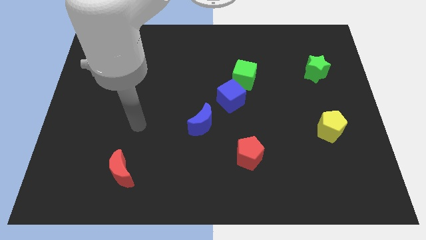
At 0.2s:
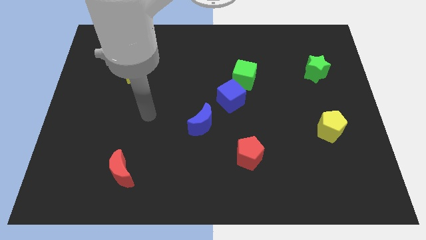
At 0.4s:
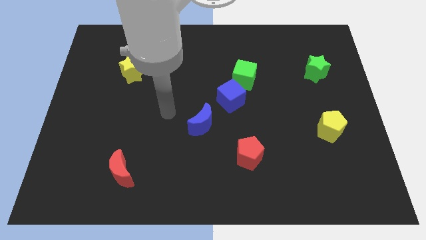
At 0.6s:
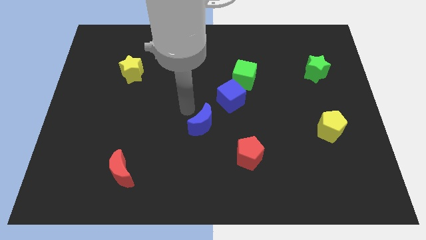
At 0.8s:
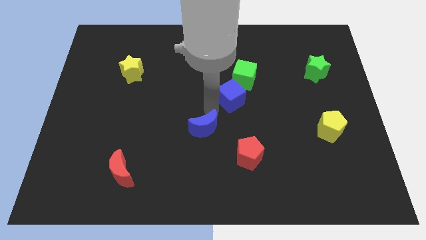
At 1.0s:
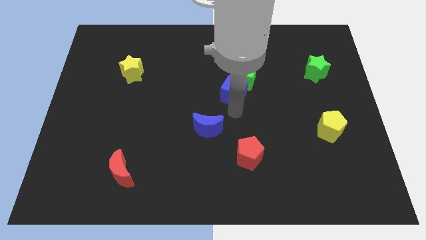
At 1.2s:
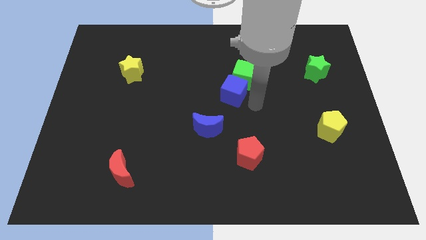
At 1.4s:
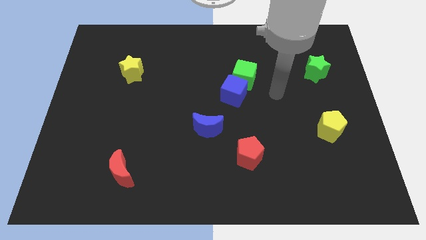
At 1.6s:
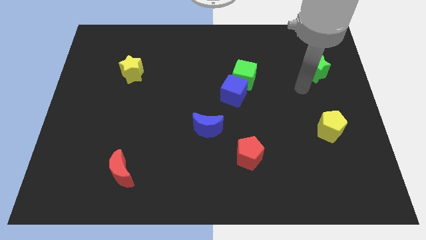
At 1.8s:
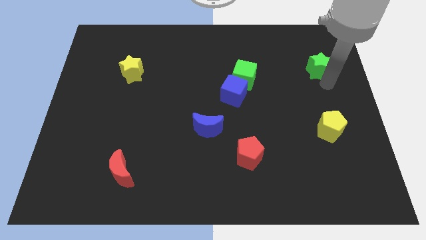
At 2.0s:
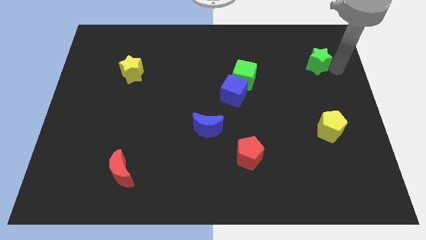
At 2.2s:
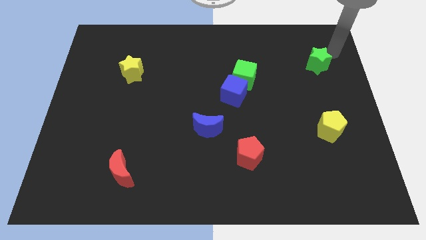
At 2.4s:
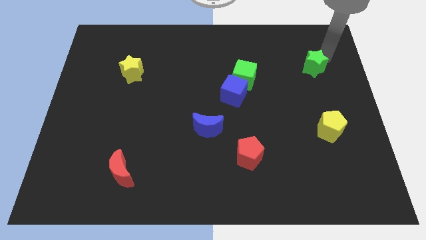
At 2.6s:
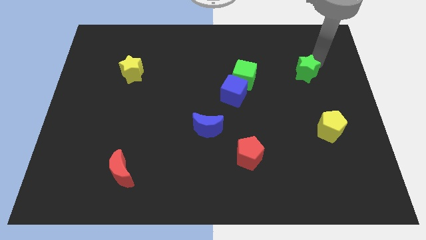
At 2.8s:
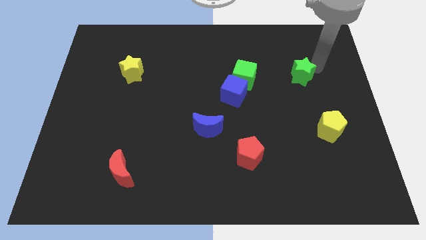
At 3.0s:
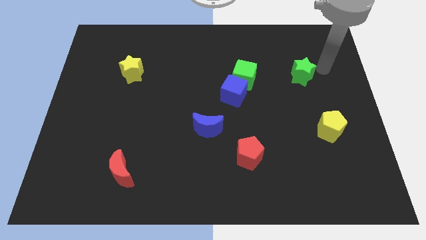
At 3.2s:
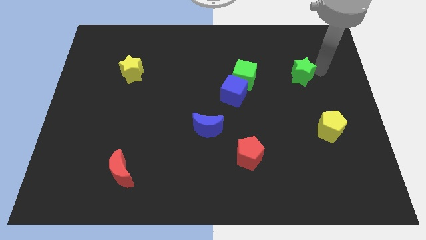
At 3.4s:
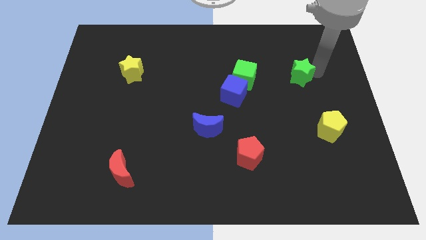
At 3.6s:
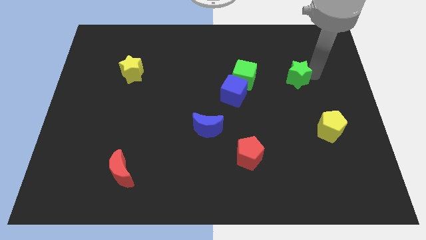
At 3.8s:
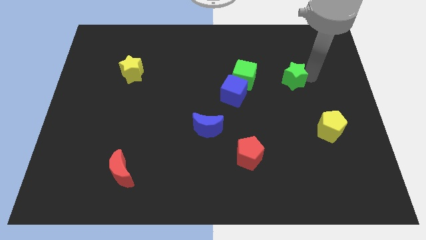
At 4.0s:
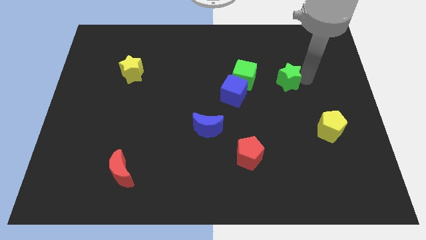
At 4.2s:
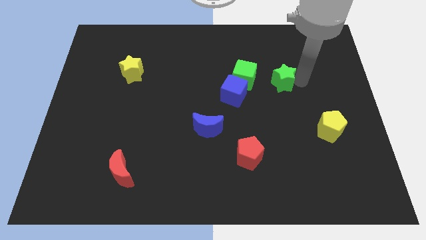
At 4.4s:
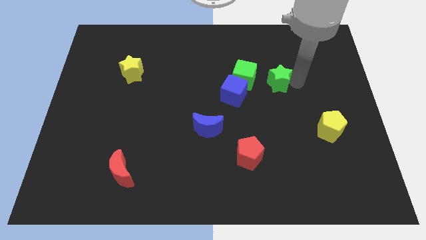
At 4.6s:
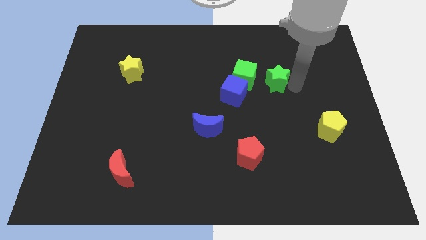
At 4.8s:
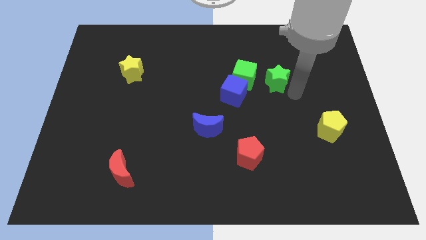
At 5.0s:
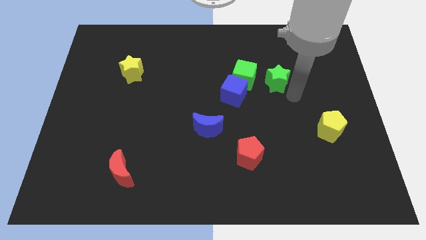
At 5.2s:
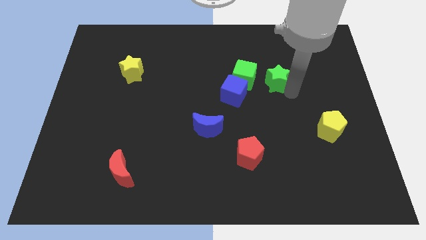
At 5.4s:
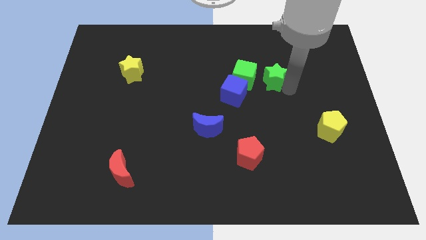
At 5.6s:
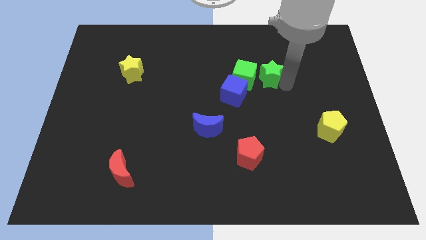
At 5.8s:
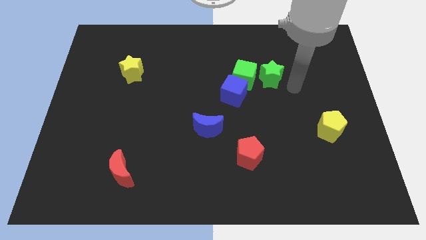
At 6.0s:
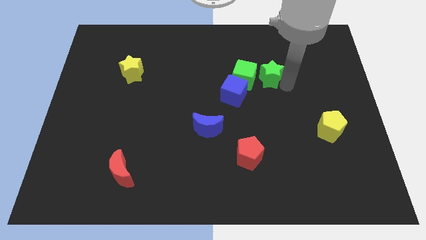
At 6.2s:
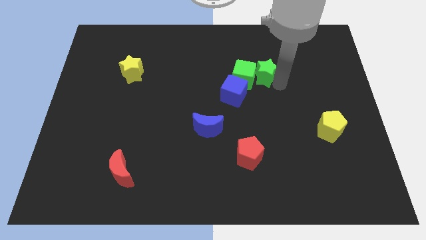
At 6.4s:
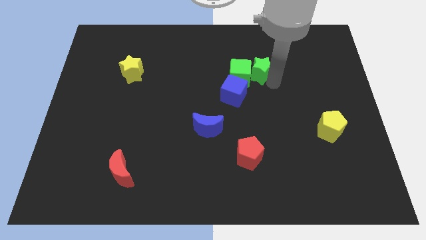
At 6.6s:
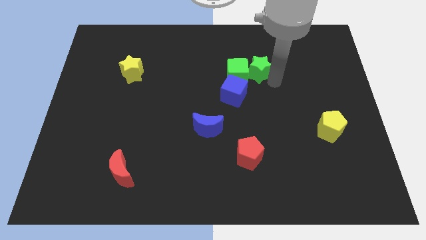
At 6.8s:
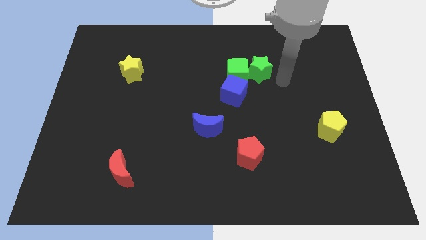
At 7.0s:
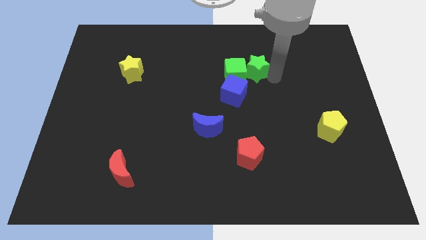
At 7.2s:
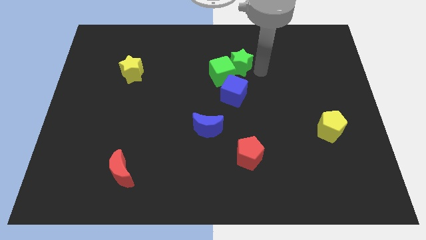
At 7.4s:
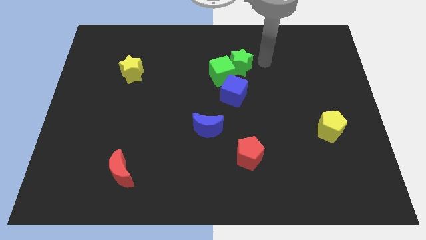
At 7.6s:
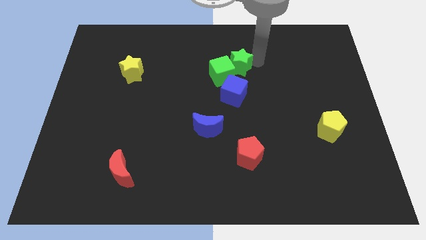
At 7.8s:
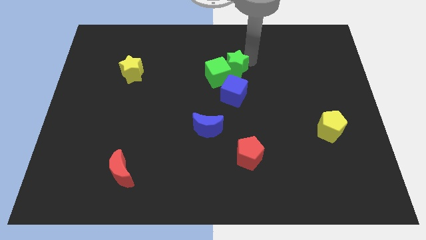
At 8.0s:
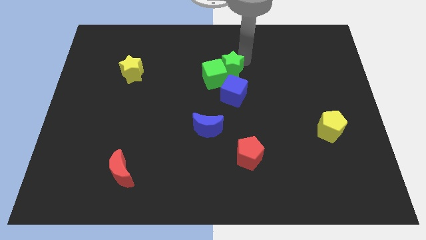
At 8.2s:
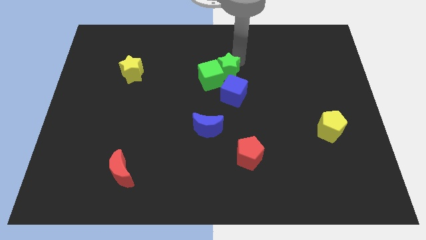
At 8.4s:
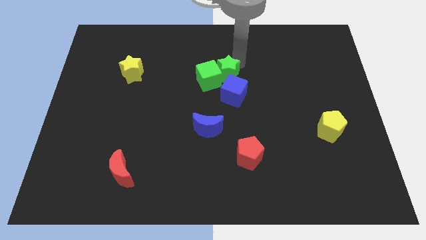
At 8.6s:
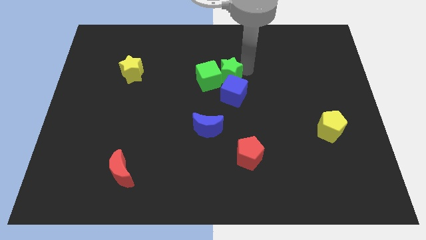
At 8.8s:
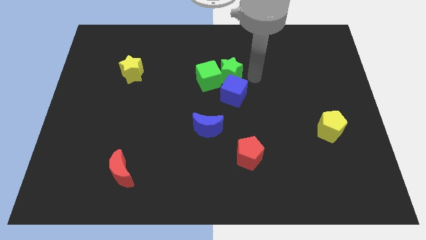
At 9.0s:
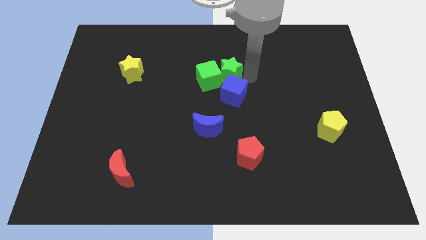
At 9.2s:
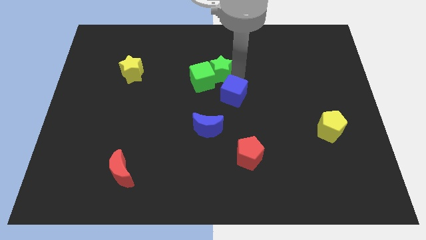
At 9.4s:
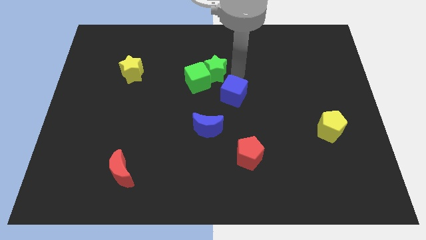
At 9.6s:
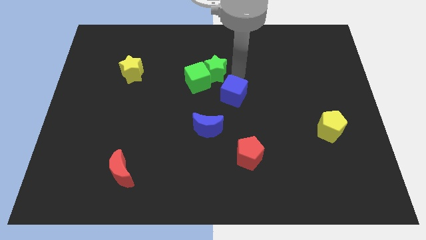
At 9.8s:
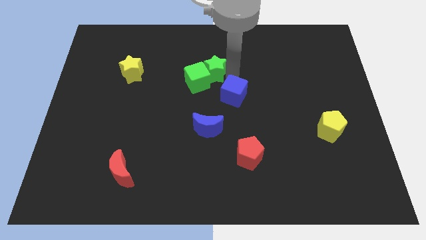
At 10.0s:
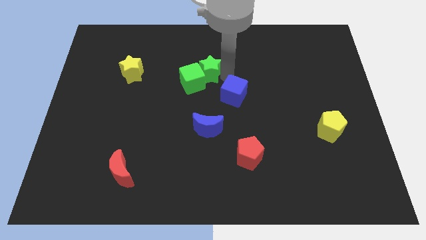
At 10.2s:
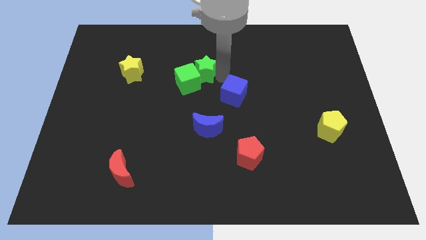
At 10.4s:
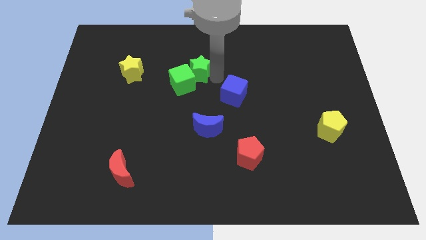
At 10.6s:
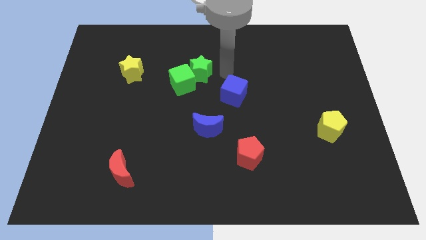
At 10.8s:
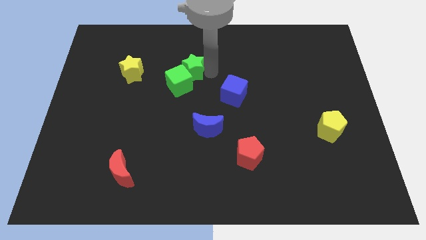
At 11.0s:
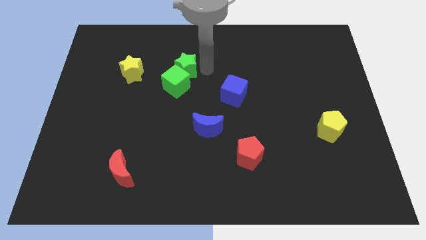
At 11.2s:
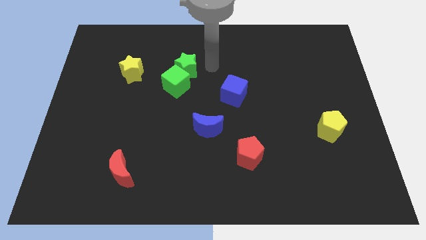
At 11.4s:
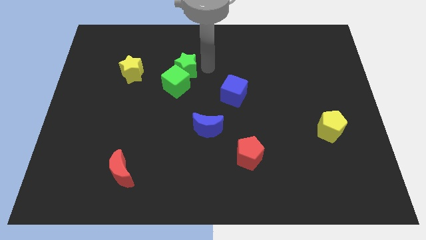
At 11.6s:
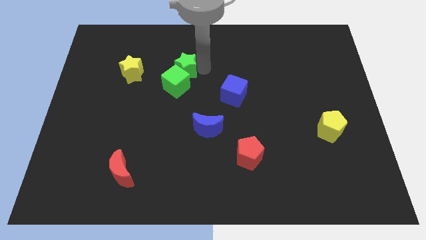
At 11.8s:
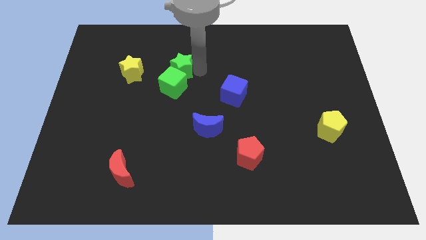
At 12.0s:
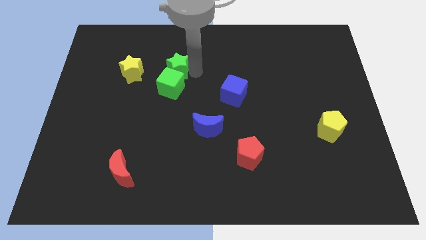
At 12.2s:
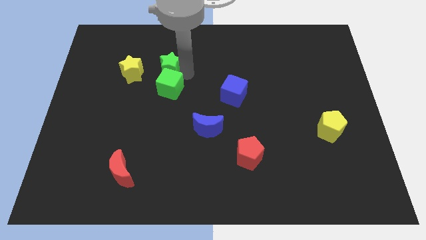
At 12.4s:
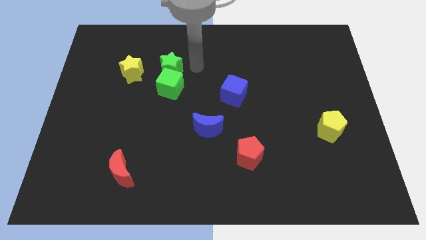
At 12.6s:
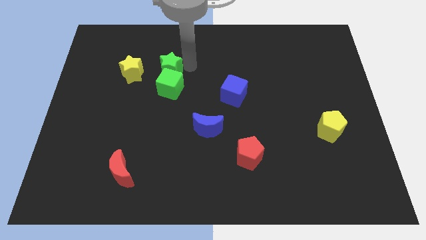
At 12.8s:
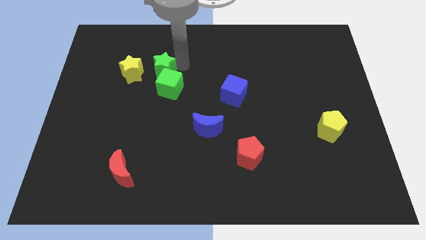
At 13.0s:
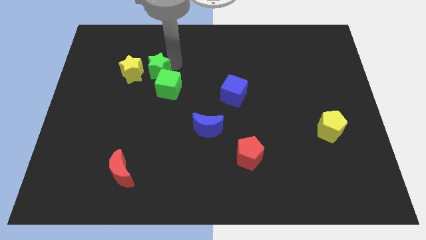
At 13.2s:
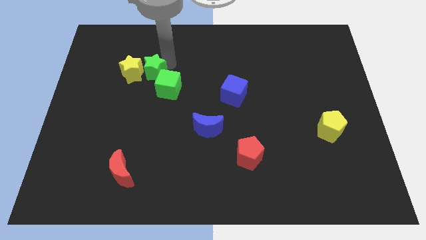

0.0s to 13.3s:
move the green star next to the yellow star

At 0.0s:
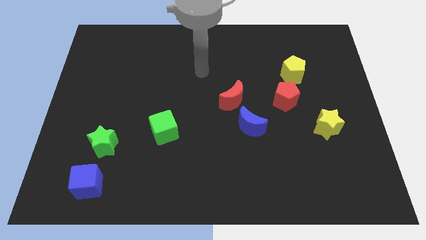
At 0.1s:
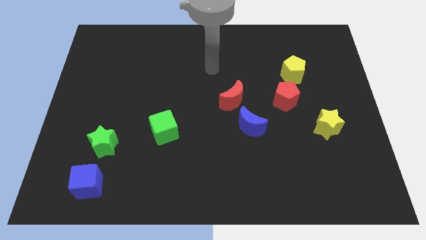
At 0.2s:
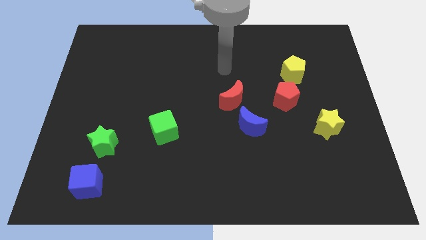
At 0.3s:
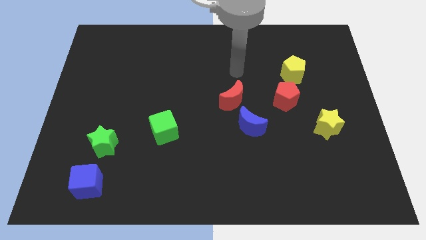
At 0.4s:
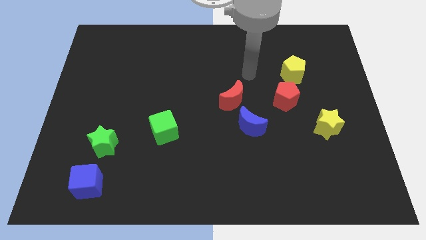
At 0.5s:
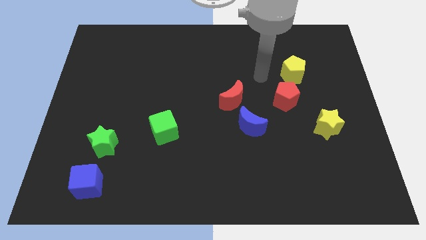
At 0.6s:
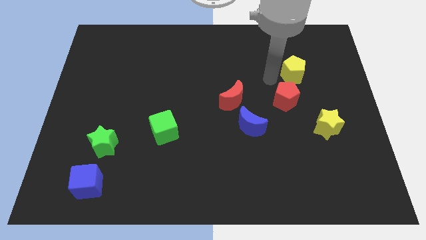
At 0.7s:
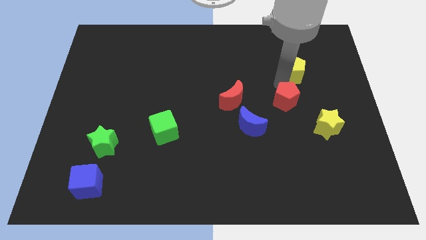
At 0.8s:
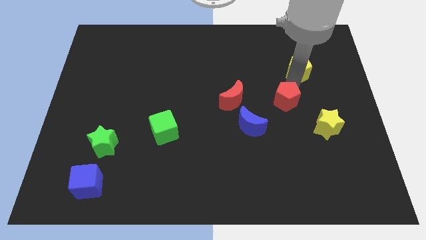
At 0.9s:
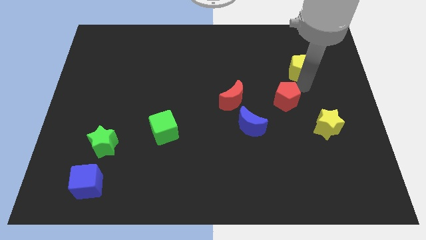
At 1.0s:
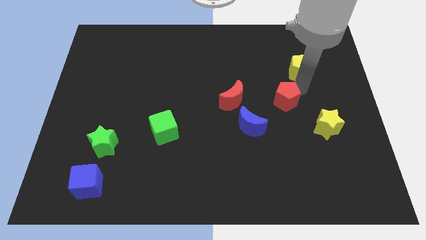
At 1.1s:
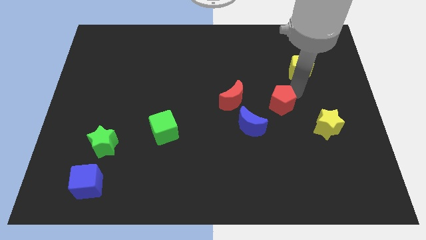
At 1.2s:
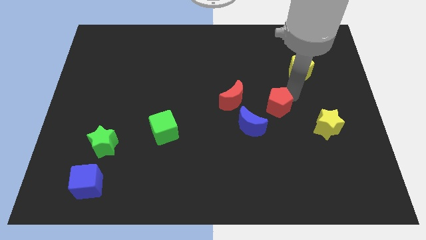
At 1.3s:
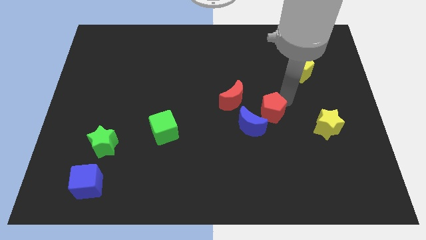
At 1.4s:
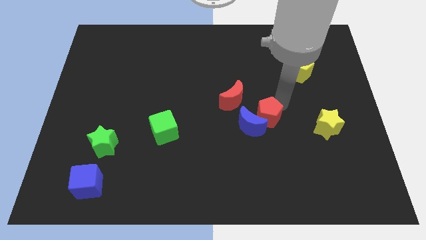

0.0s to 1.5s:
push the red pentagon to the blue moon
